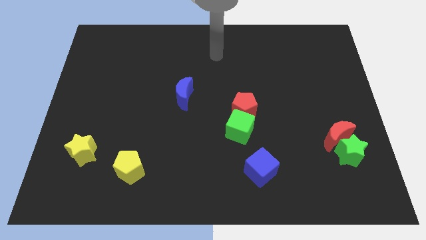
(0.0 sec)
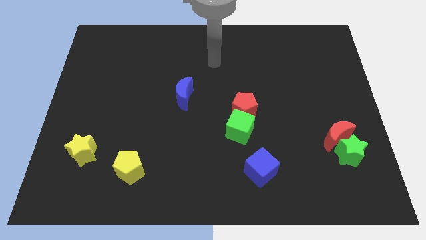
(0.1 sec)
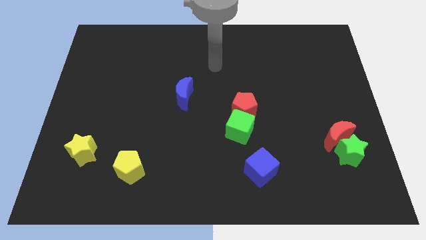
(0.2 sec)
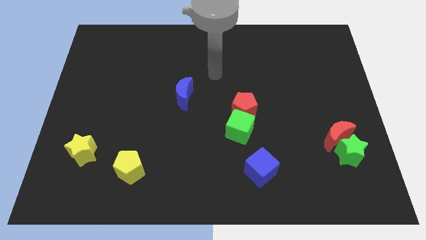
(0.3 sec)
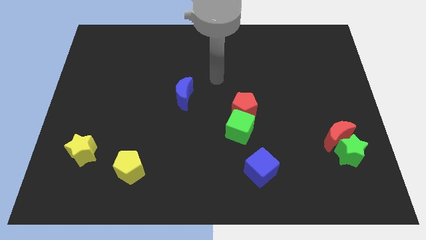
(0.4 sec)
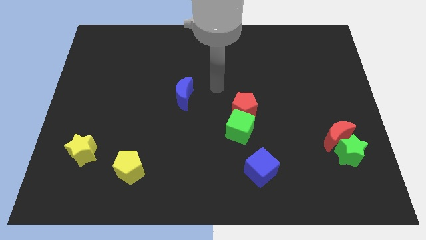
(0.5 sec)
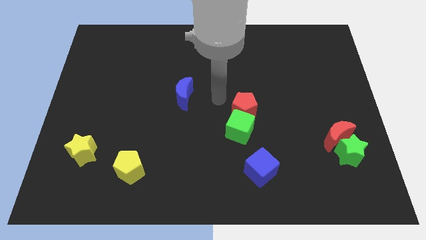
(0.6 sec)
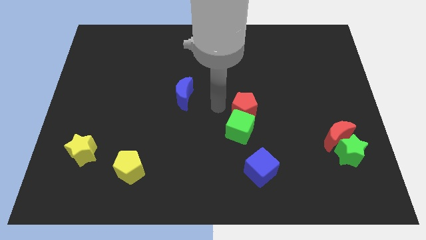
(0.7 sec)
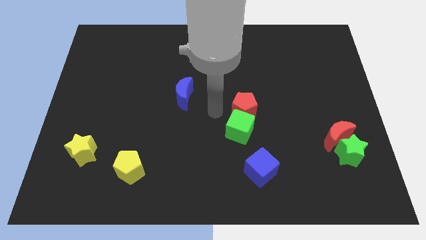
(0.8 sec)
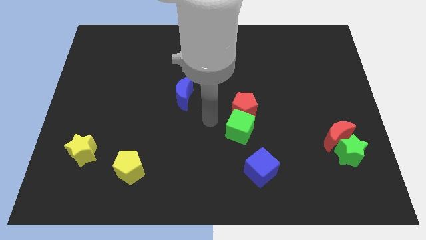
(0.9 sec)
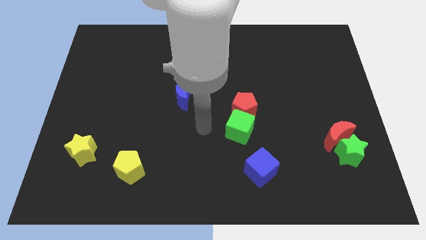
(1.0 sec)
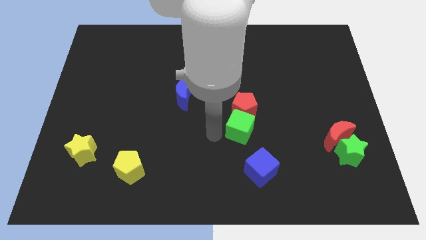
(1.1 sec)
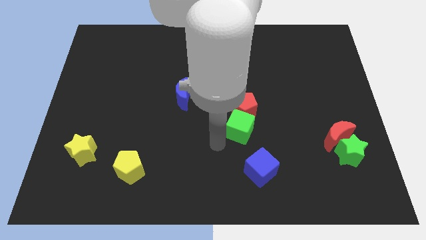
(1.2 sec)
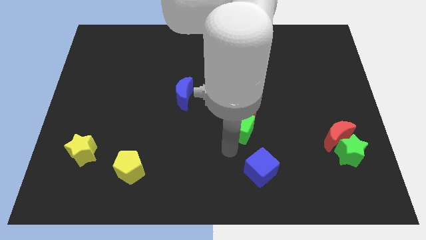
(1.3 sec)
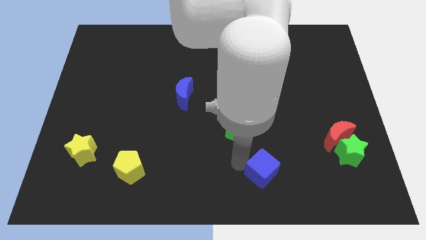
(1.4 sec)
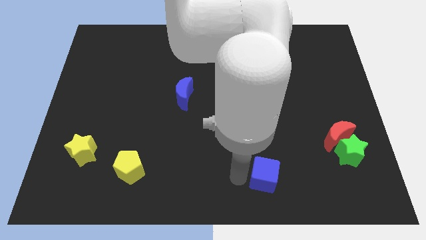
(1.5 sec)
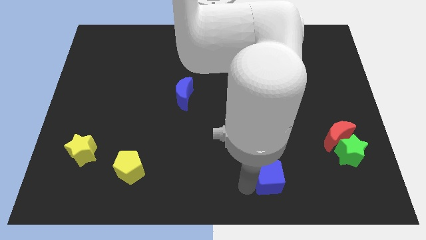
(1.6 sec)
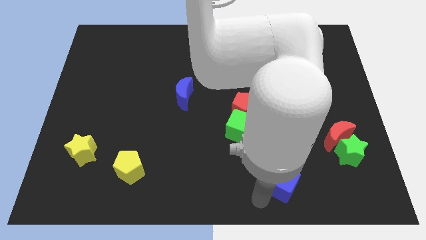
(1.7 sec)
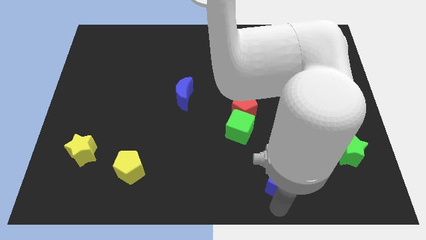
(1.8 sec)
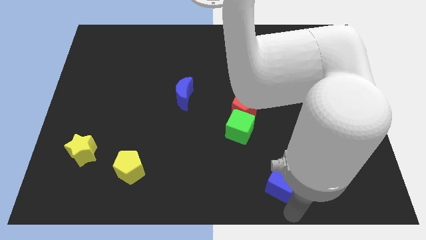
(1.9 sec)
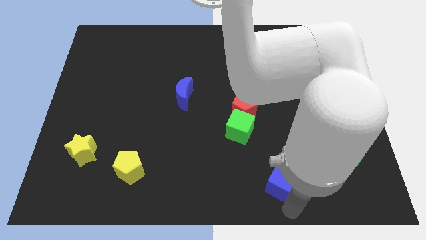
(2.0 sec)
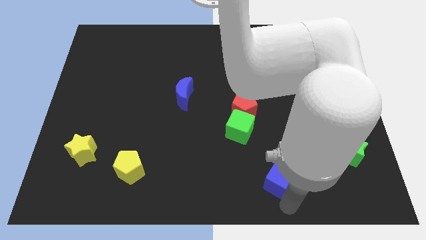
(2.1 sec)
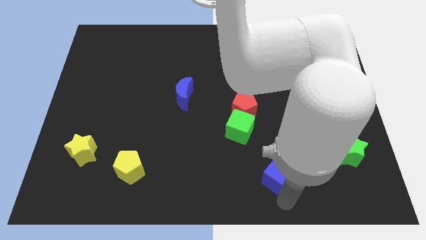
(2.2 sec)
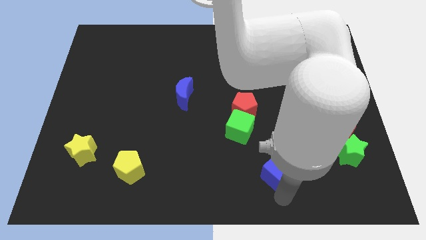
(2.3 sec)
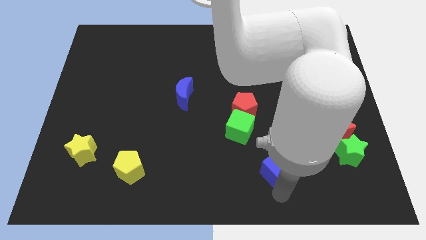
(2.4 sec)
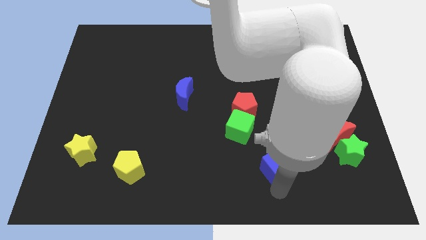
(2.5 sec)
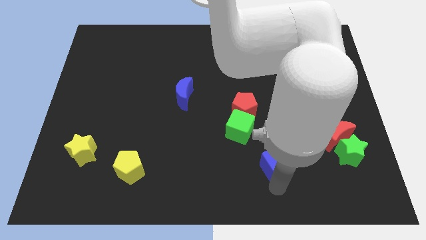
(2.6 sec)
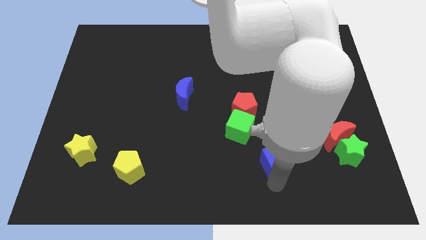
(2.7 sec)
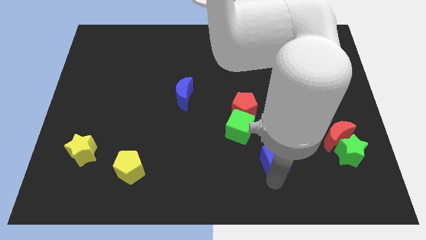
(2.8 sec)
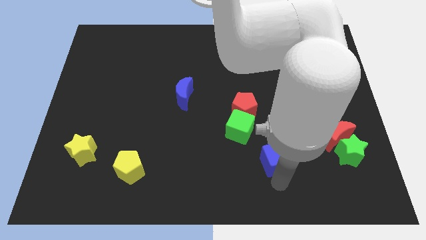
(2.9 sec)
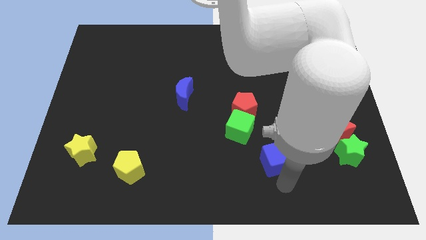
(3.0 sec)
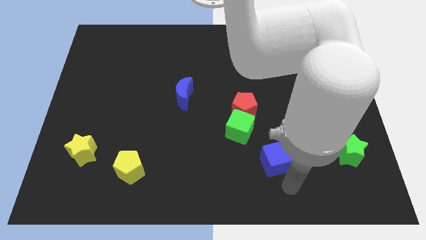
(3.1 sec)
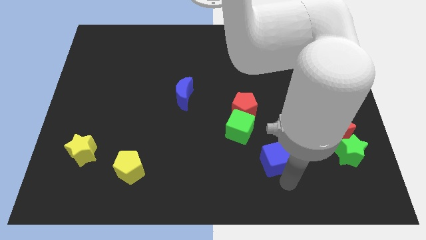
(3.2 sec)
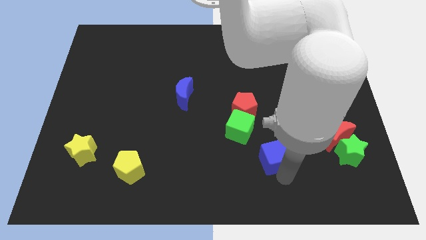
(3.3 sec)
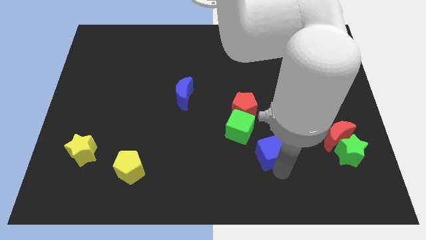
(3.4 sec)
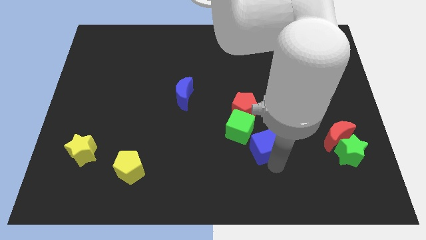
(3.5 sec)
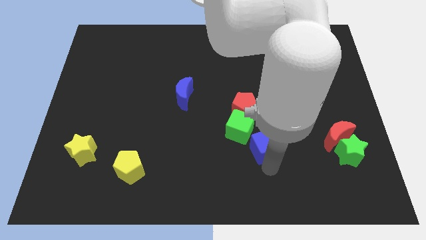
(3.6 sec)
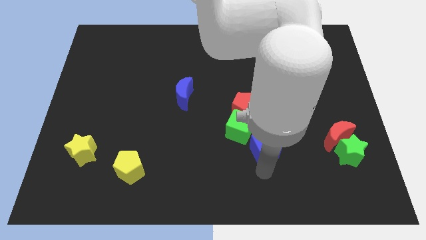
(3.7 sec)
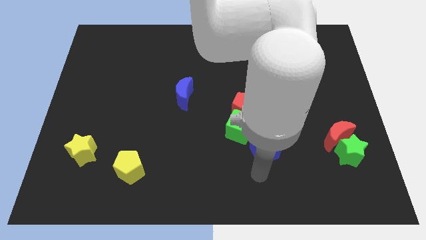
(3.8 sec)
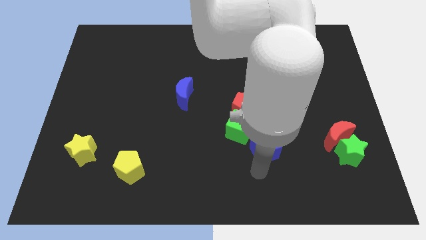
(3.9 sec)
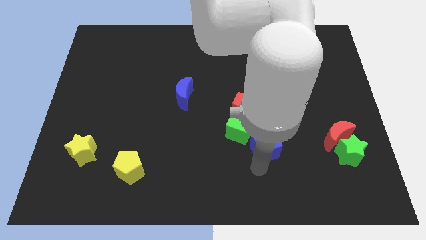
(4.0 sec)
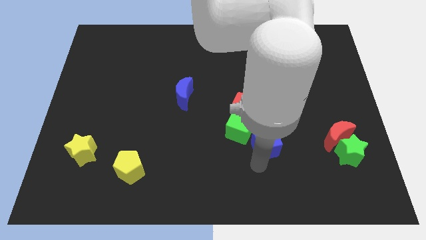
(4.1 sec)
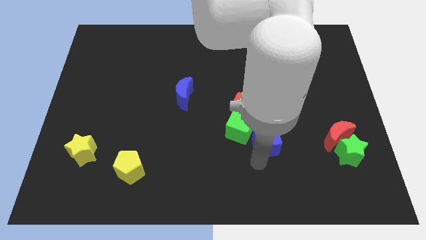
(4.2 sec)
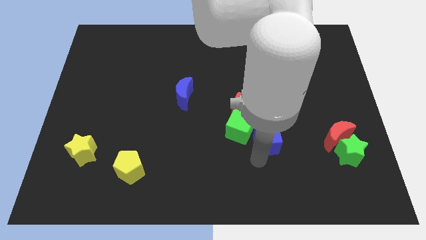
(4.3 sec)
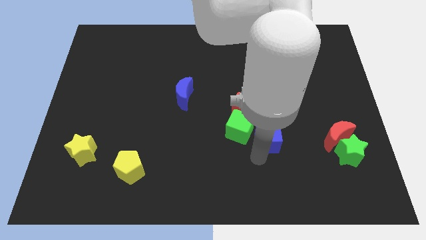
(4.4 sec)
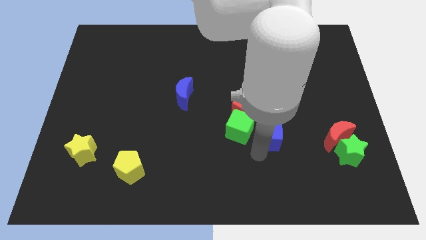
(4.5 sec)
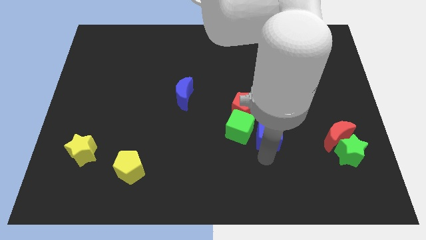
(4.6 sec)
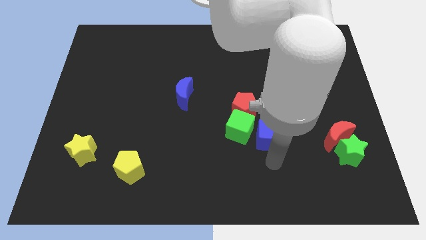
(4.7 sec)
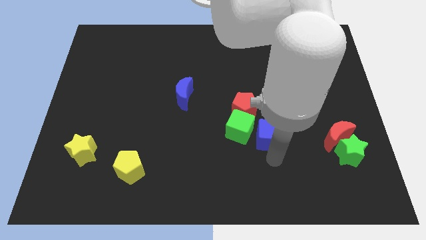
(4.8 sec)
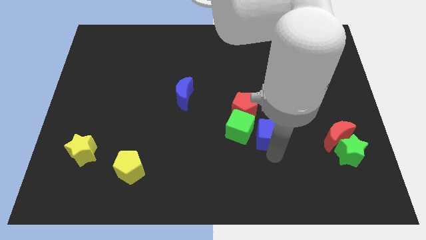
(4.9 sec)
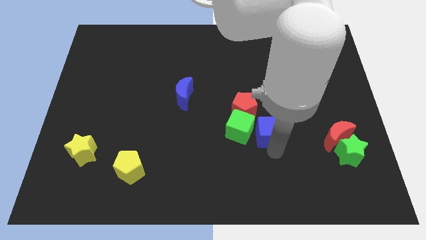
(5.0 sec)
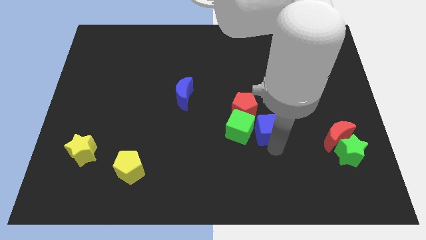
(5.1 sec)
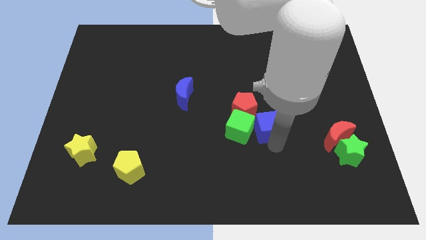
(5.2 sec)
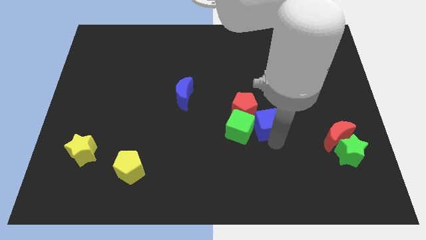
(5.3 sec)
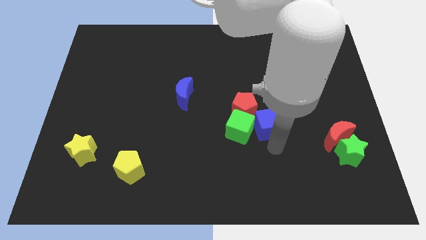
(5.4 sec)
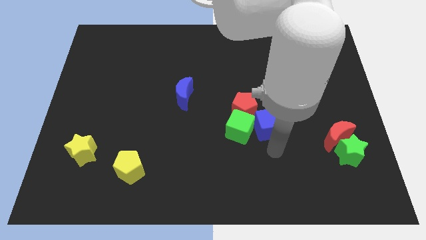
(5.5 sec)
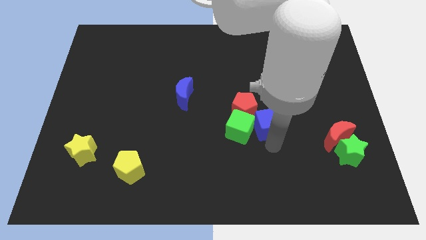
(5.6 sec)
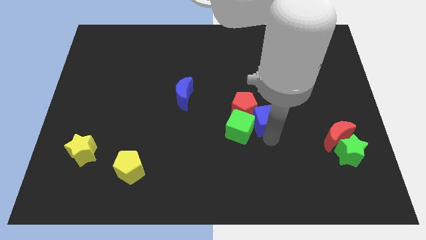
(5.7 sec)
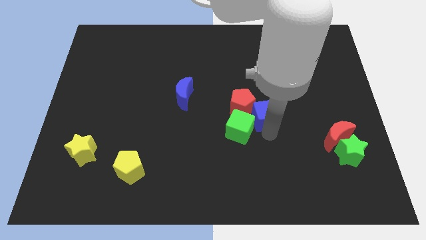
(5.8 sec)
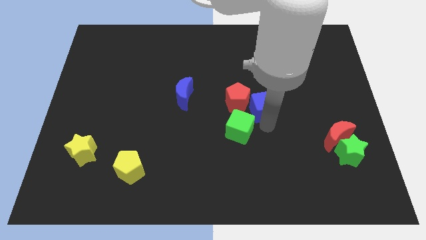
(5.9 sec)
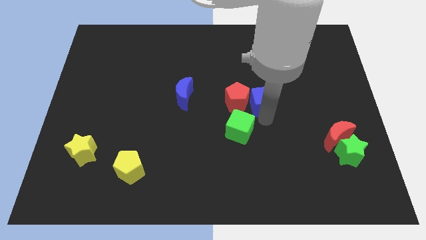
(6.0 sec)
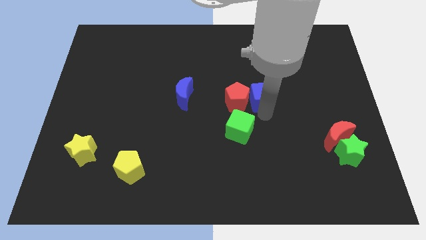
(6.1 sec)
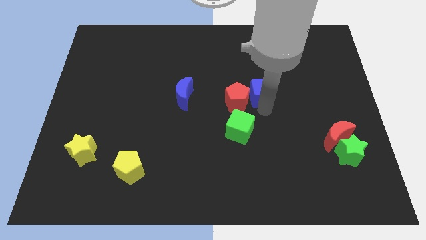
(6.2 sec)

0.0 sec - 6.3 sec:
push the blue cube upwards

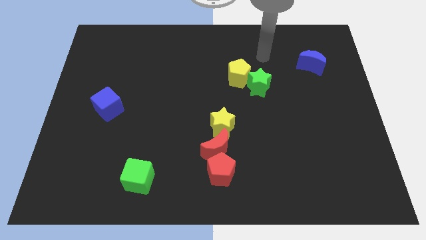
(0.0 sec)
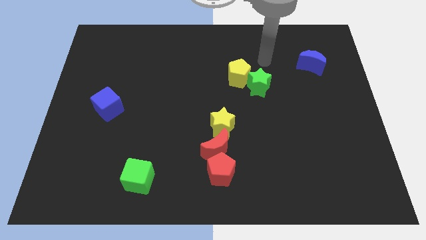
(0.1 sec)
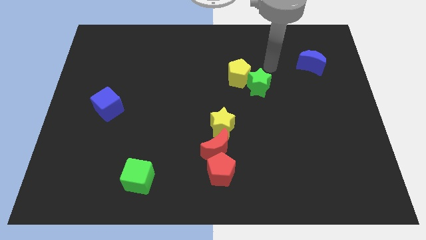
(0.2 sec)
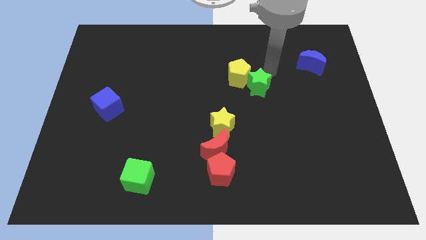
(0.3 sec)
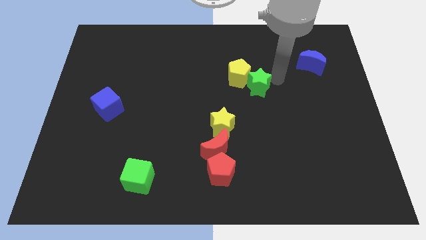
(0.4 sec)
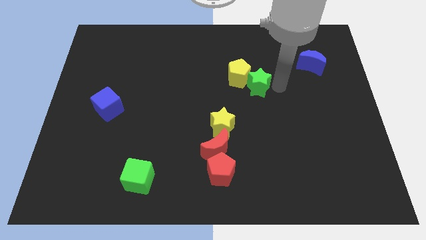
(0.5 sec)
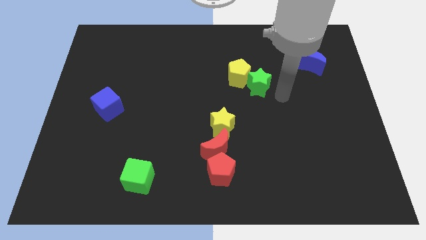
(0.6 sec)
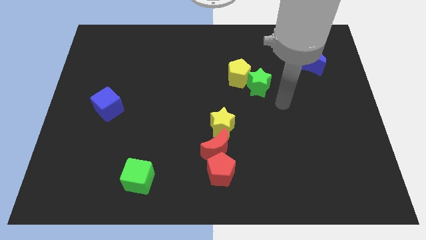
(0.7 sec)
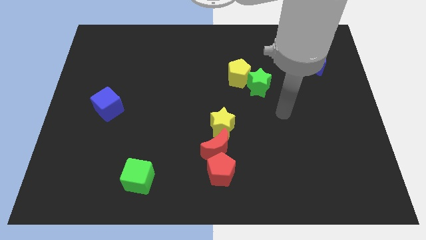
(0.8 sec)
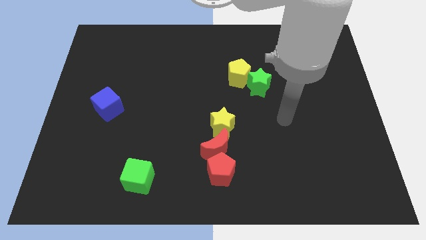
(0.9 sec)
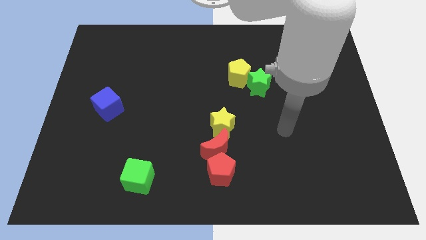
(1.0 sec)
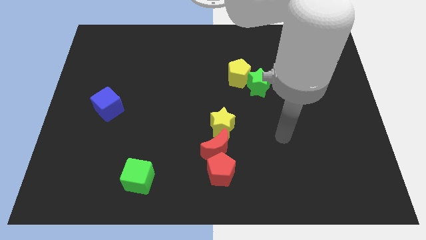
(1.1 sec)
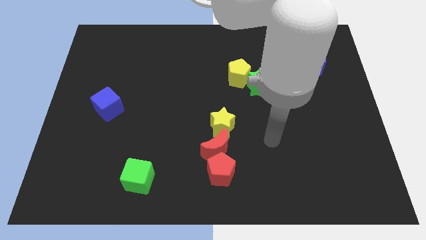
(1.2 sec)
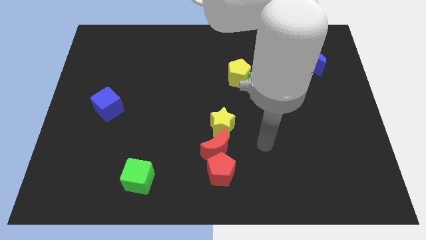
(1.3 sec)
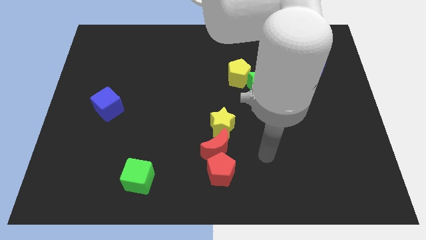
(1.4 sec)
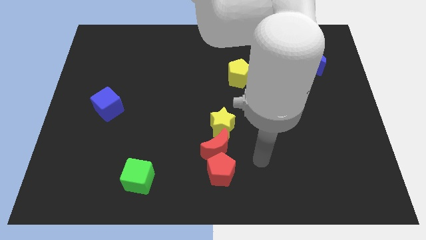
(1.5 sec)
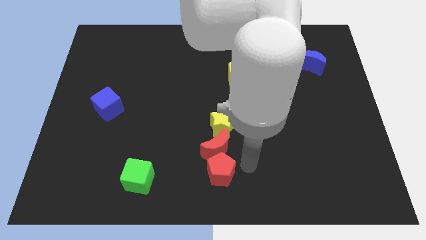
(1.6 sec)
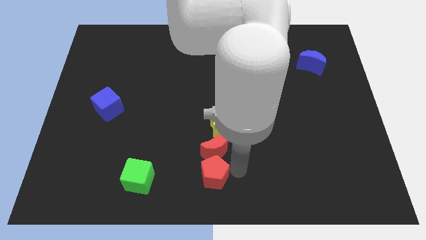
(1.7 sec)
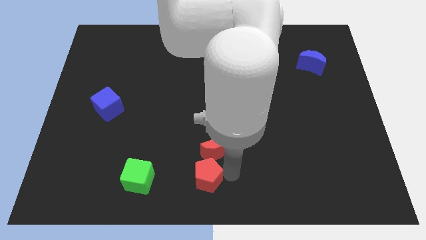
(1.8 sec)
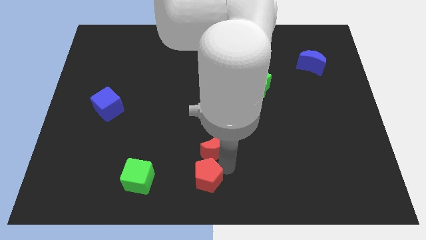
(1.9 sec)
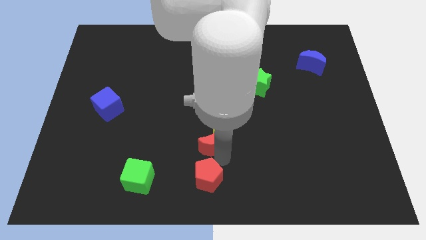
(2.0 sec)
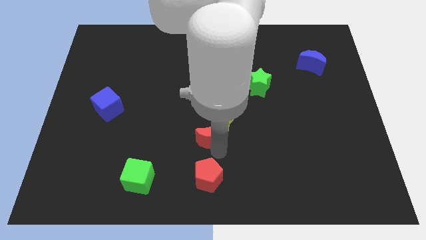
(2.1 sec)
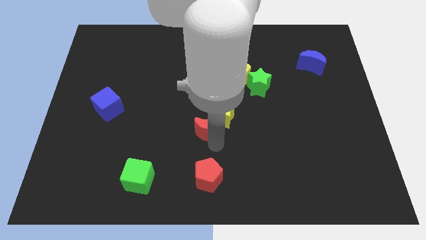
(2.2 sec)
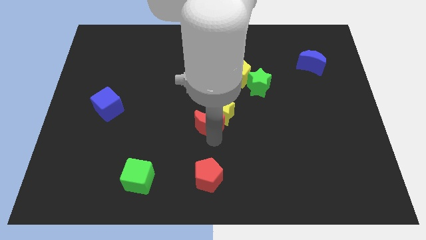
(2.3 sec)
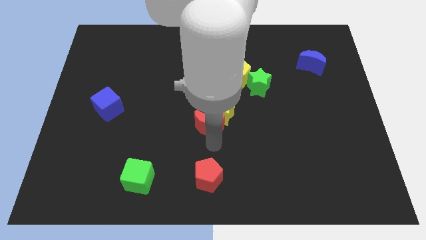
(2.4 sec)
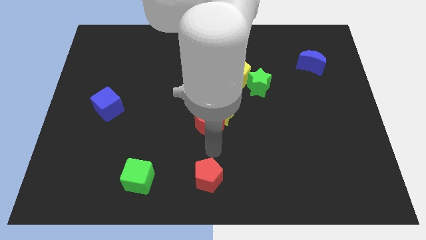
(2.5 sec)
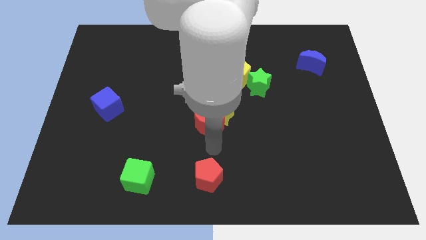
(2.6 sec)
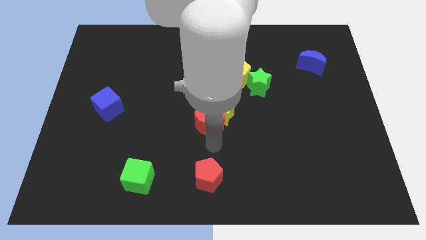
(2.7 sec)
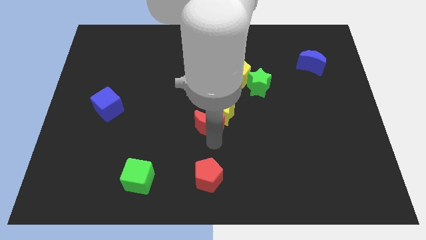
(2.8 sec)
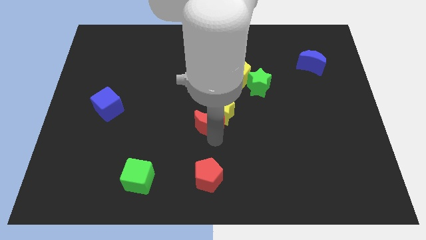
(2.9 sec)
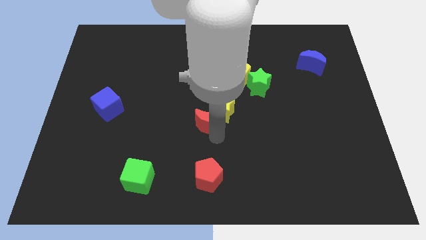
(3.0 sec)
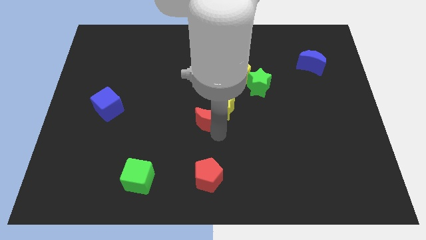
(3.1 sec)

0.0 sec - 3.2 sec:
slightly move the red moon up
